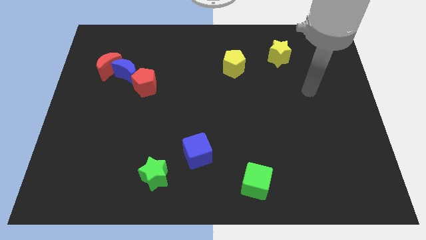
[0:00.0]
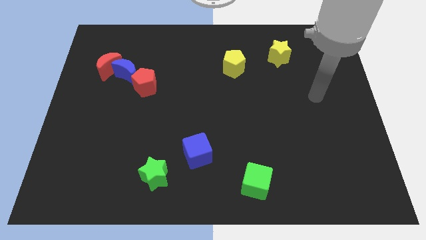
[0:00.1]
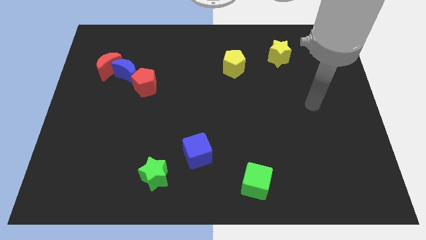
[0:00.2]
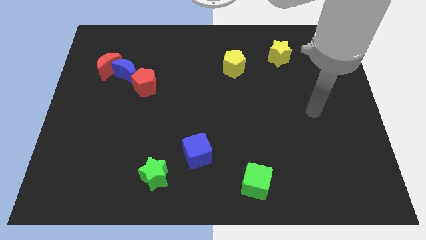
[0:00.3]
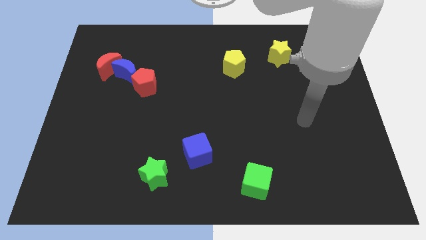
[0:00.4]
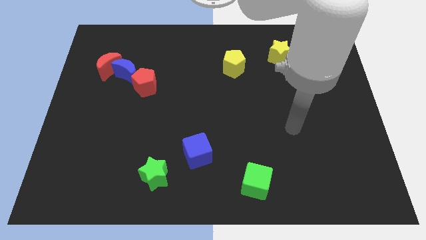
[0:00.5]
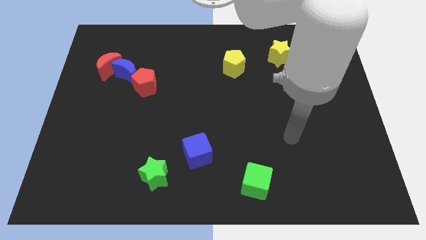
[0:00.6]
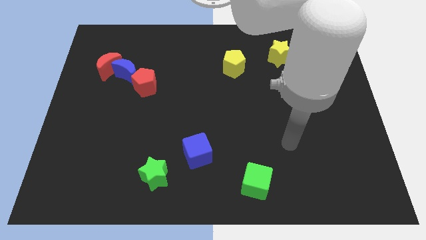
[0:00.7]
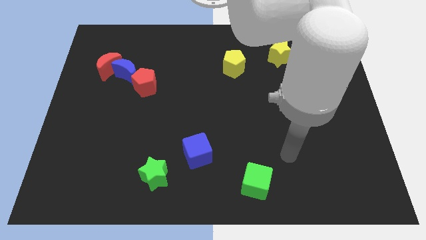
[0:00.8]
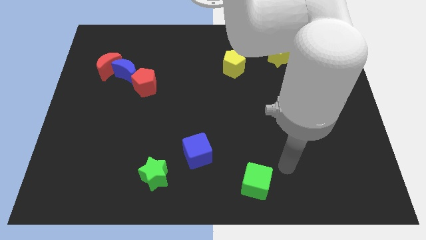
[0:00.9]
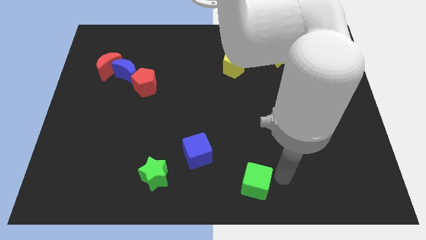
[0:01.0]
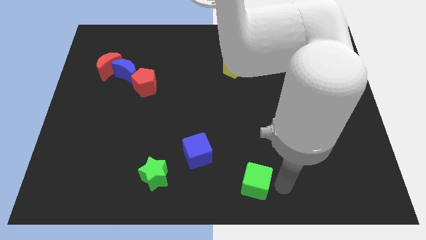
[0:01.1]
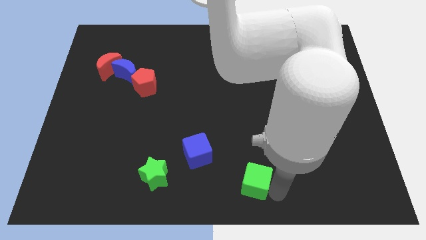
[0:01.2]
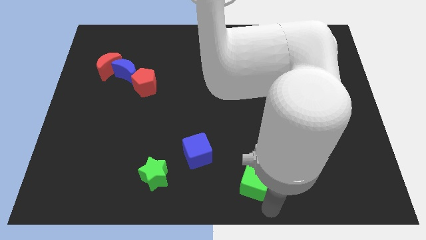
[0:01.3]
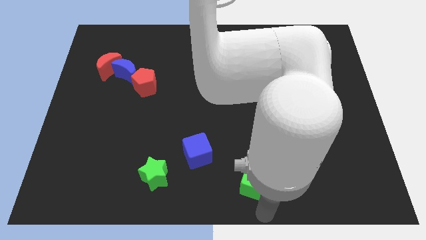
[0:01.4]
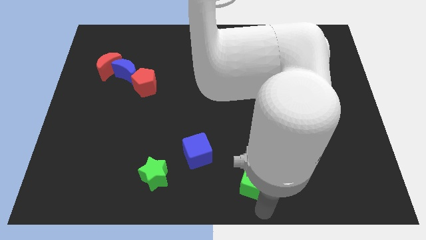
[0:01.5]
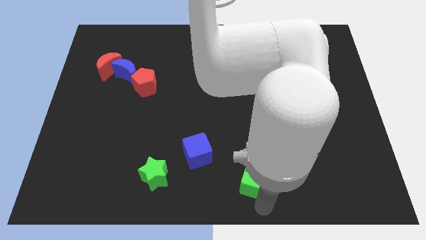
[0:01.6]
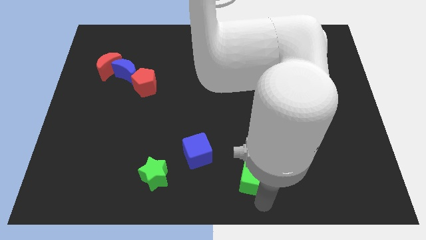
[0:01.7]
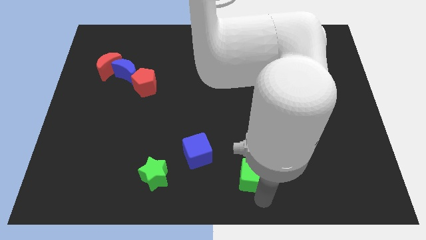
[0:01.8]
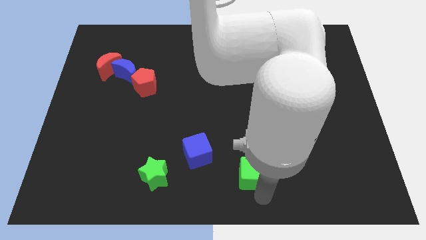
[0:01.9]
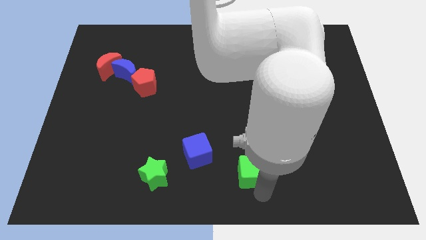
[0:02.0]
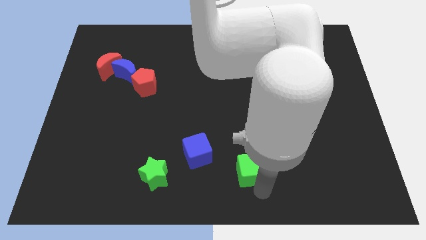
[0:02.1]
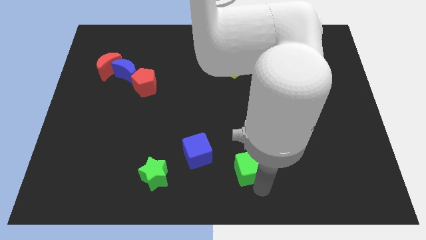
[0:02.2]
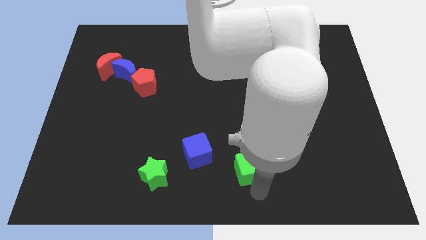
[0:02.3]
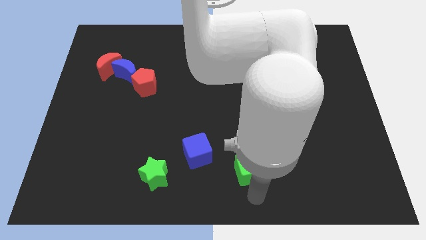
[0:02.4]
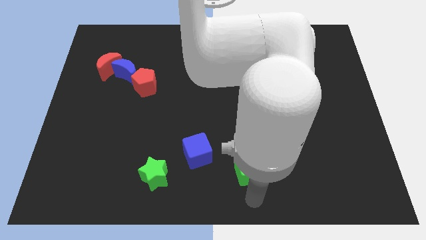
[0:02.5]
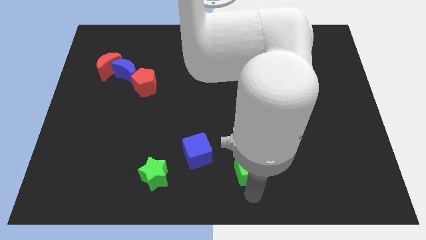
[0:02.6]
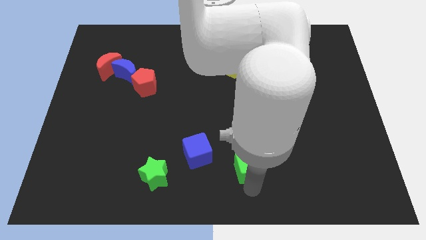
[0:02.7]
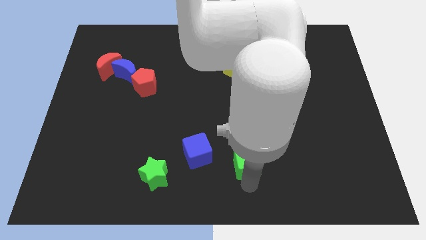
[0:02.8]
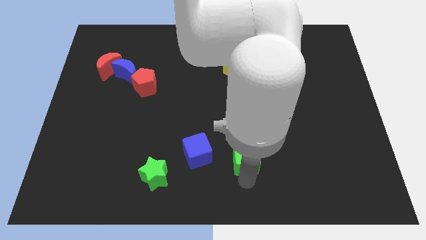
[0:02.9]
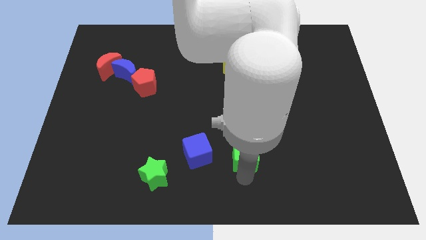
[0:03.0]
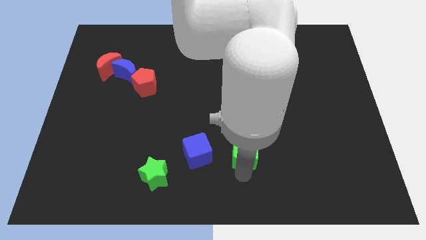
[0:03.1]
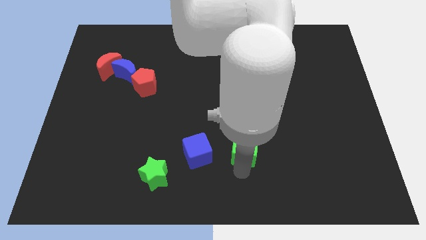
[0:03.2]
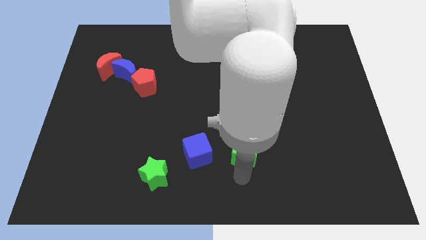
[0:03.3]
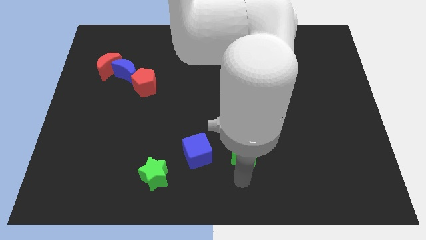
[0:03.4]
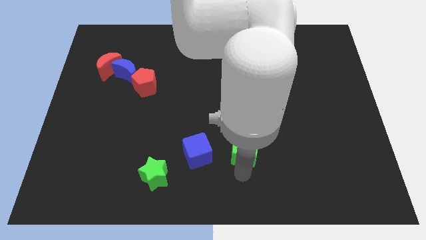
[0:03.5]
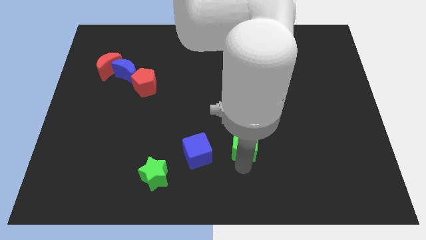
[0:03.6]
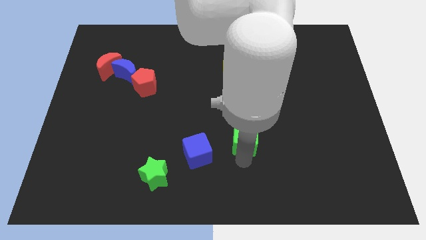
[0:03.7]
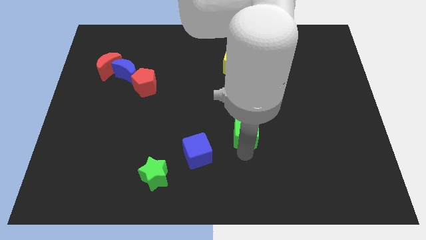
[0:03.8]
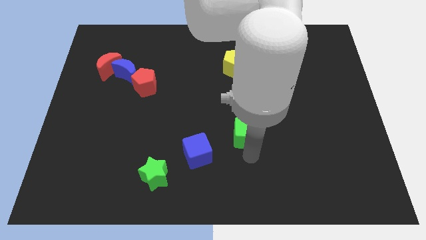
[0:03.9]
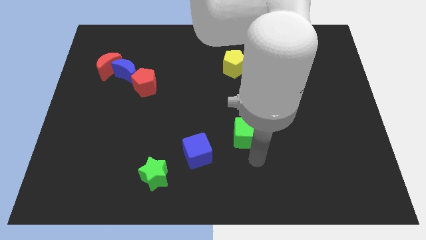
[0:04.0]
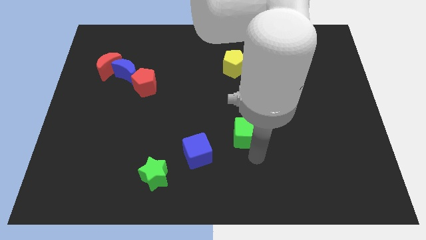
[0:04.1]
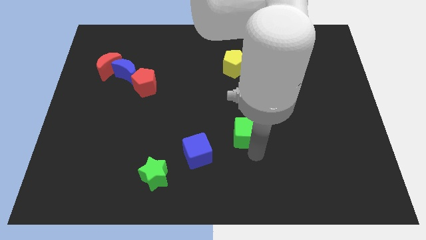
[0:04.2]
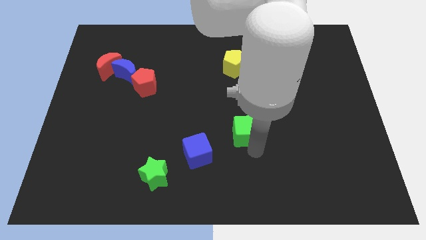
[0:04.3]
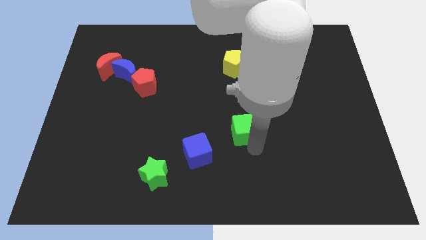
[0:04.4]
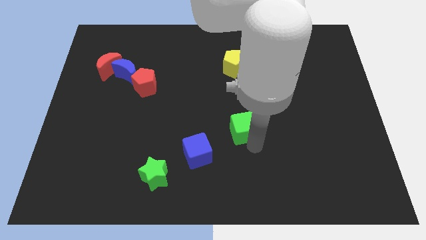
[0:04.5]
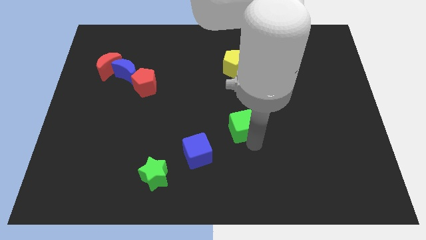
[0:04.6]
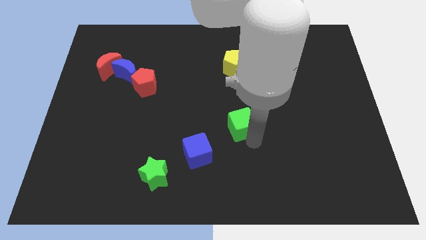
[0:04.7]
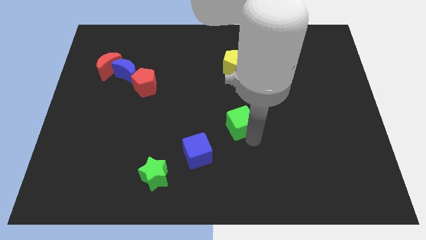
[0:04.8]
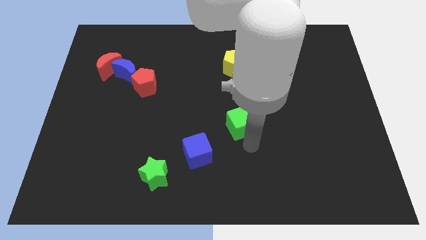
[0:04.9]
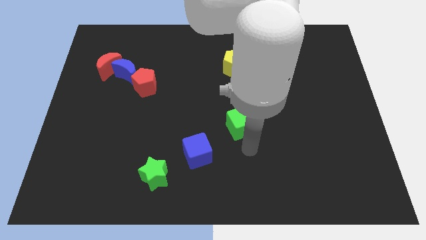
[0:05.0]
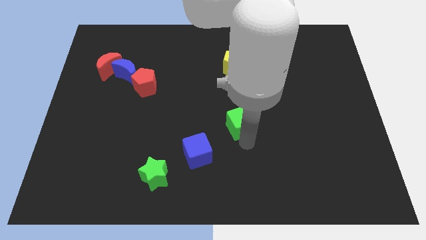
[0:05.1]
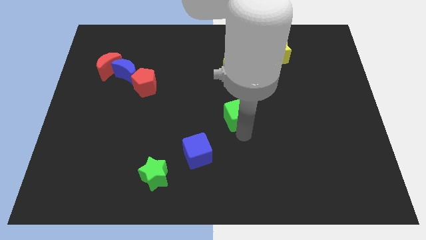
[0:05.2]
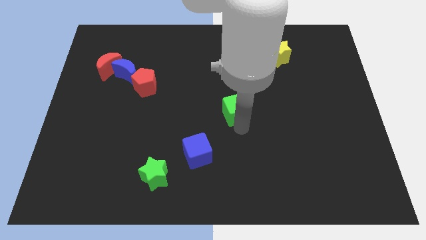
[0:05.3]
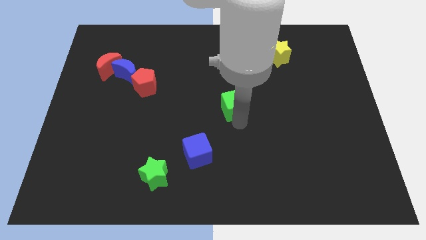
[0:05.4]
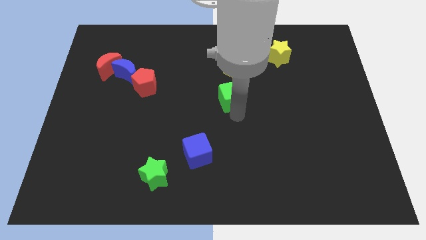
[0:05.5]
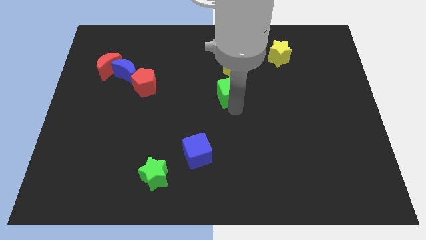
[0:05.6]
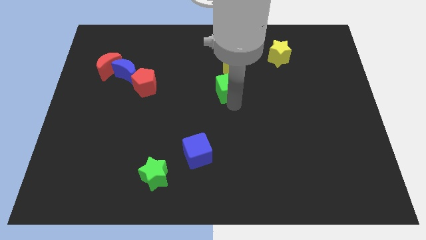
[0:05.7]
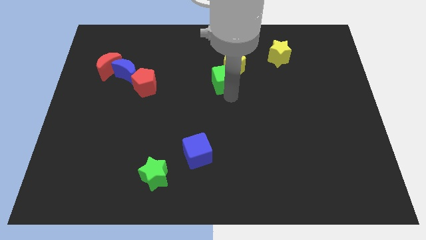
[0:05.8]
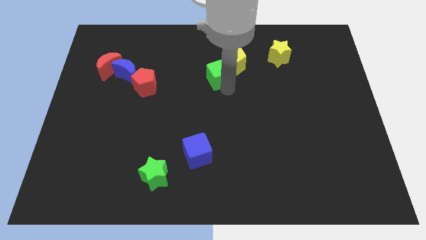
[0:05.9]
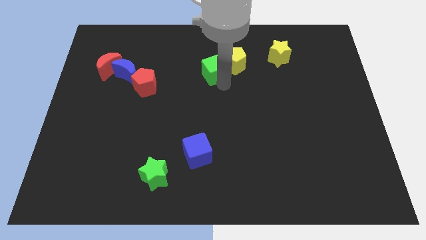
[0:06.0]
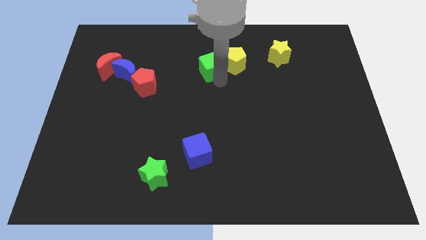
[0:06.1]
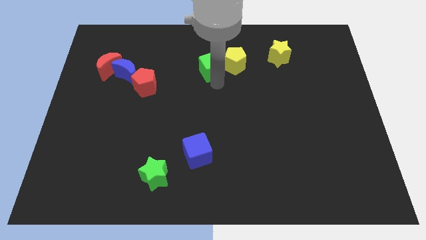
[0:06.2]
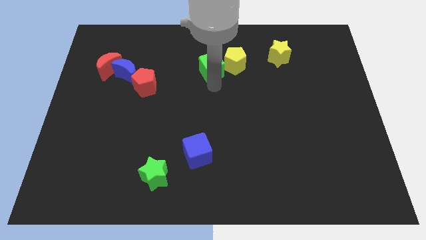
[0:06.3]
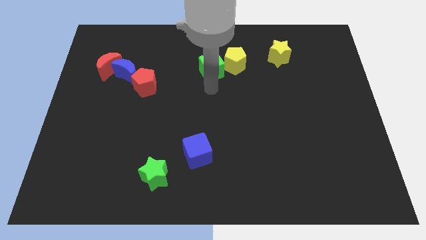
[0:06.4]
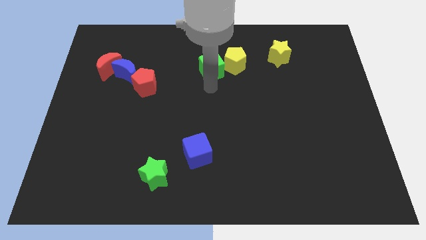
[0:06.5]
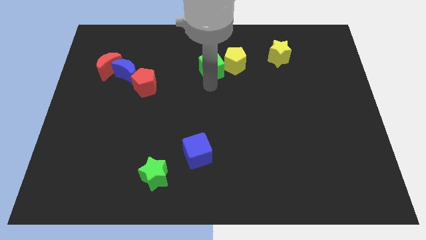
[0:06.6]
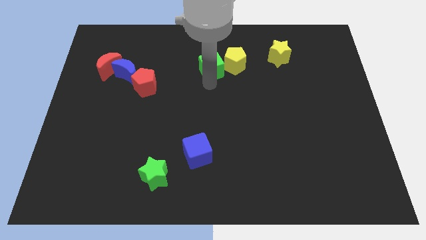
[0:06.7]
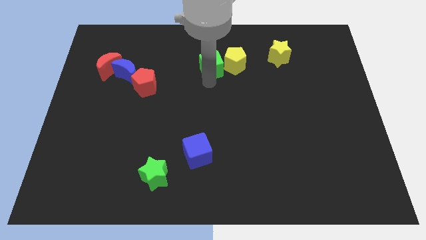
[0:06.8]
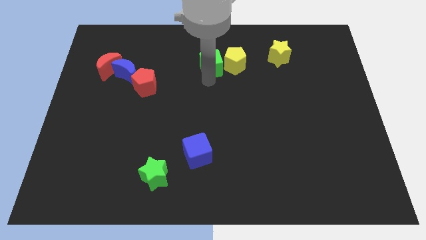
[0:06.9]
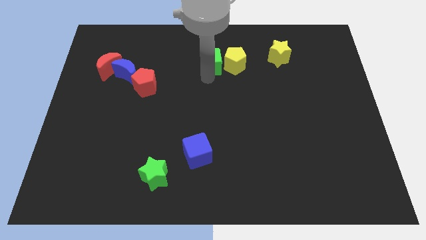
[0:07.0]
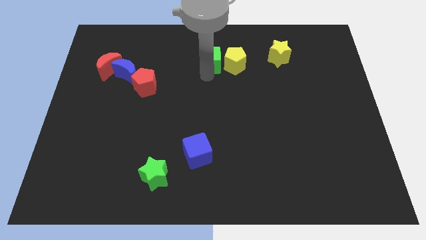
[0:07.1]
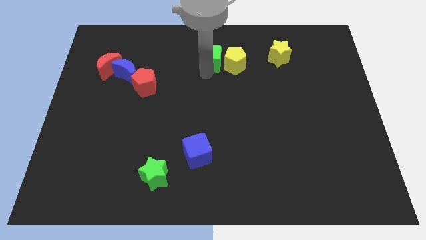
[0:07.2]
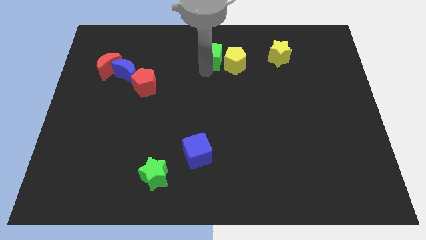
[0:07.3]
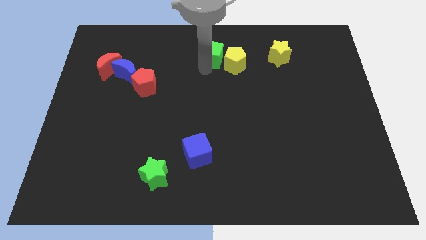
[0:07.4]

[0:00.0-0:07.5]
slide the green cube to the top side
